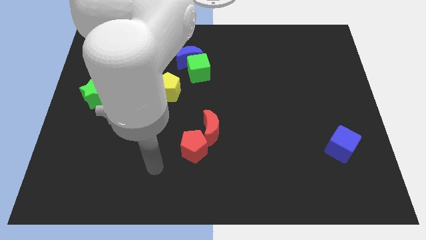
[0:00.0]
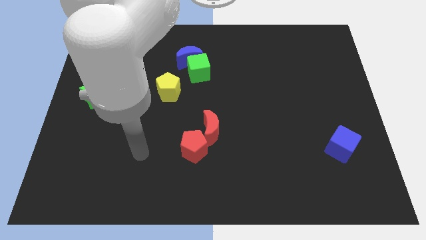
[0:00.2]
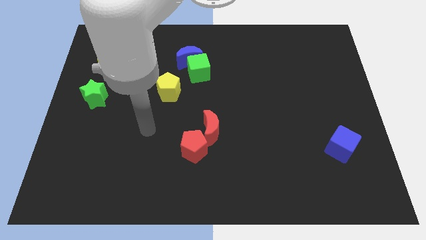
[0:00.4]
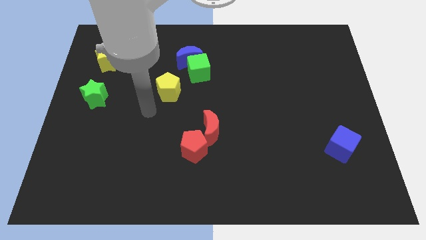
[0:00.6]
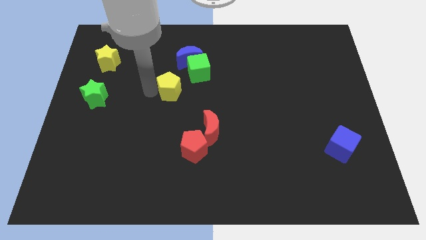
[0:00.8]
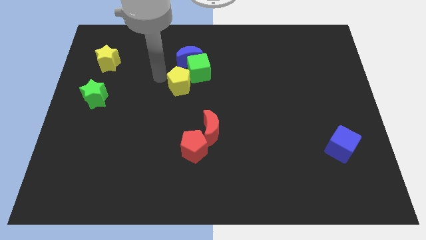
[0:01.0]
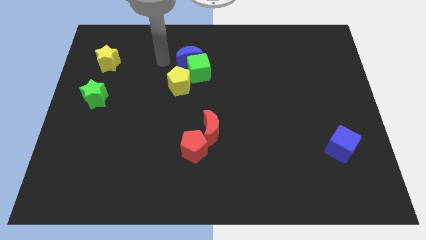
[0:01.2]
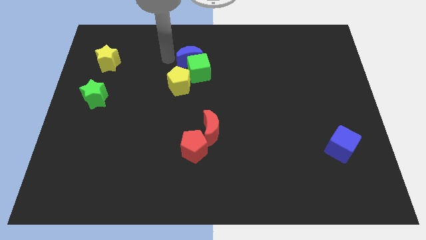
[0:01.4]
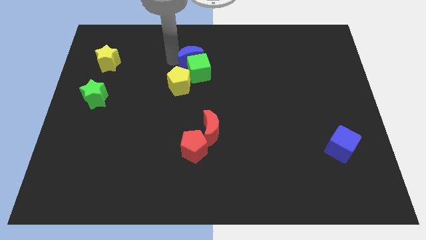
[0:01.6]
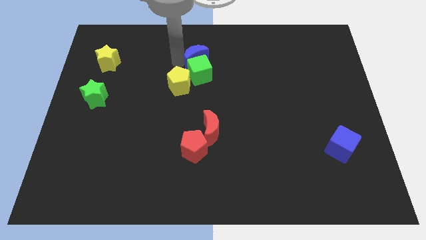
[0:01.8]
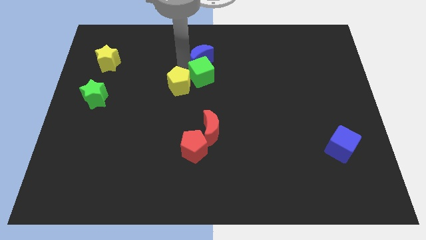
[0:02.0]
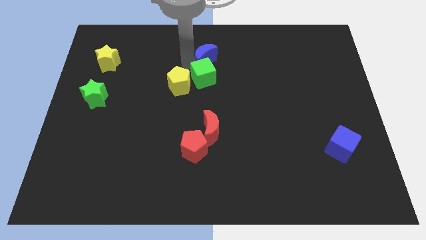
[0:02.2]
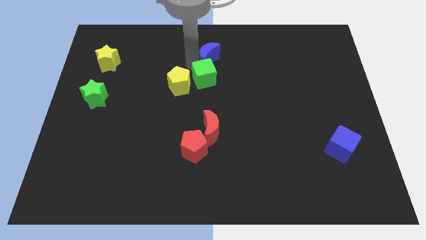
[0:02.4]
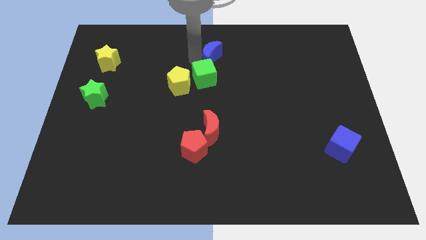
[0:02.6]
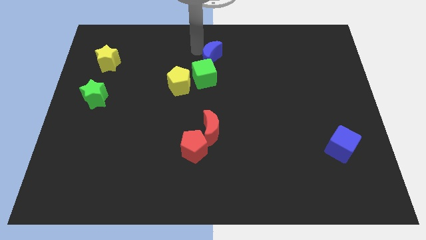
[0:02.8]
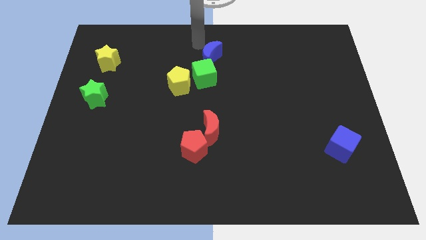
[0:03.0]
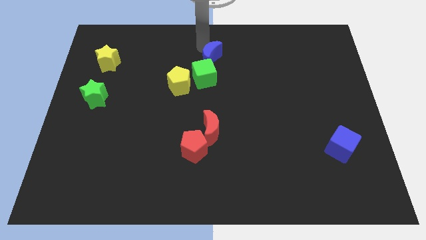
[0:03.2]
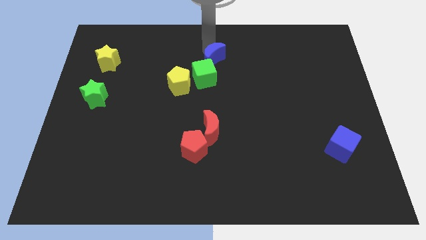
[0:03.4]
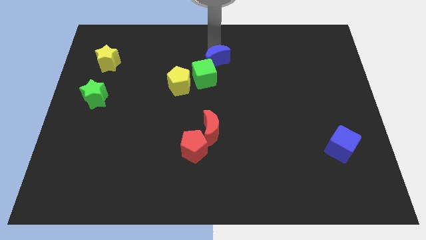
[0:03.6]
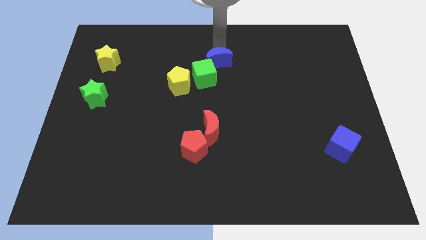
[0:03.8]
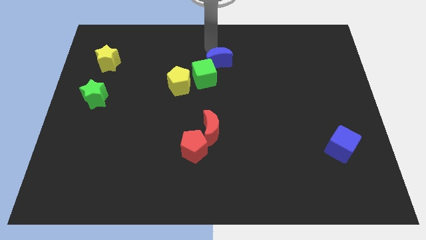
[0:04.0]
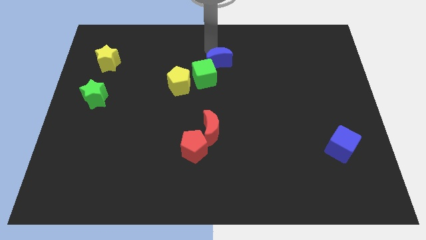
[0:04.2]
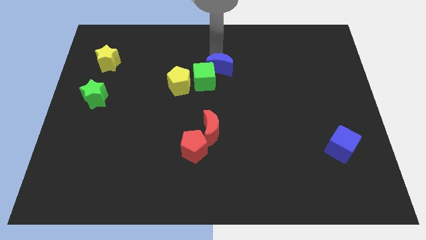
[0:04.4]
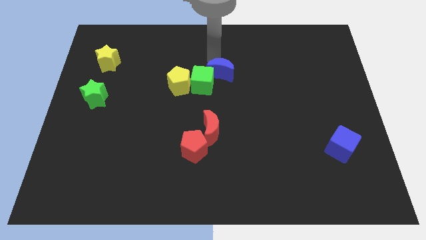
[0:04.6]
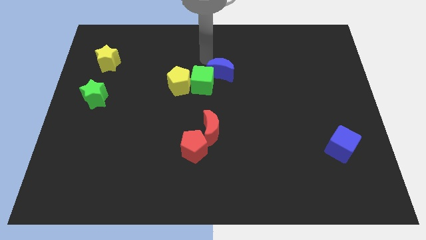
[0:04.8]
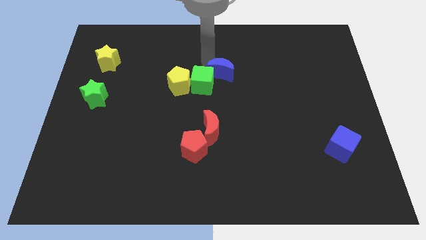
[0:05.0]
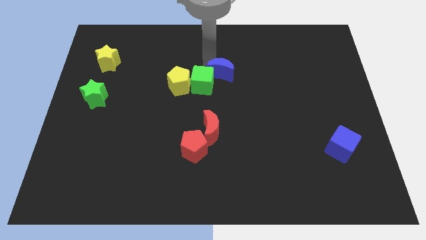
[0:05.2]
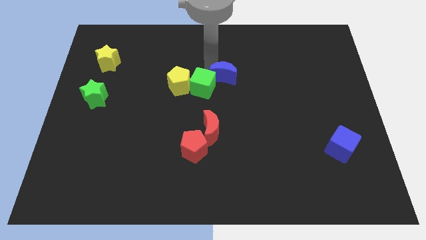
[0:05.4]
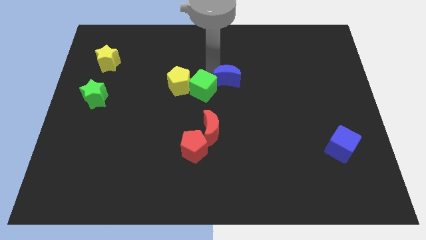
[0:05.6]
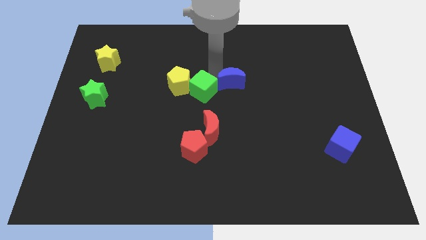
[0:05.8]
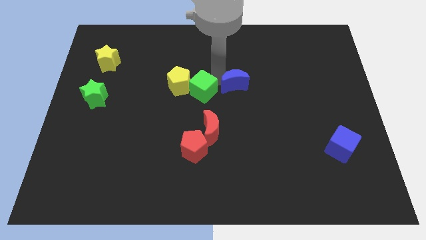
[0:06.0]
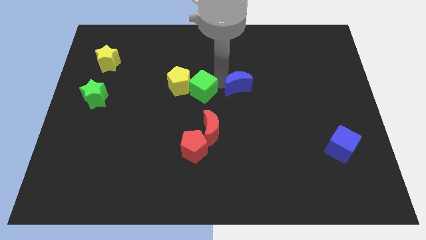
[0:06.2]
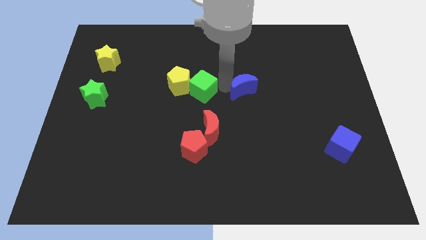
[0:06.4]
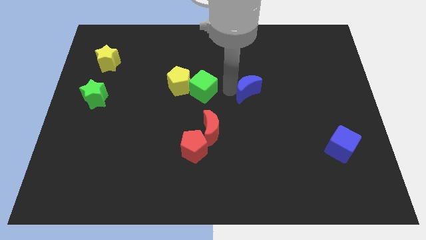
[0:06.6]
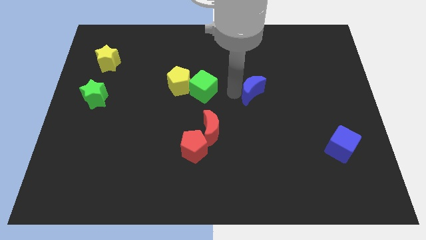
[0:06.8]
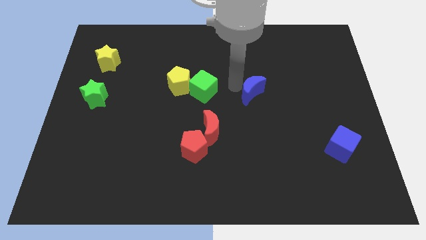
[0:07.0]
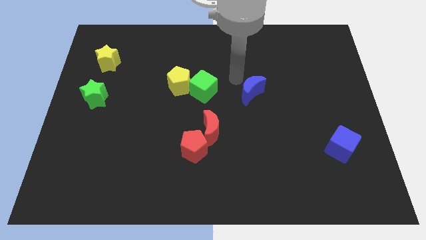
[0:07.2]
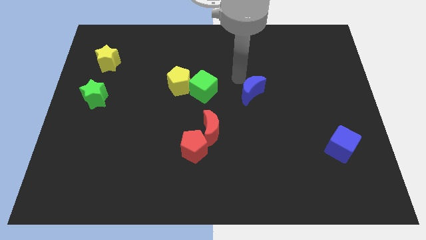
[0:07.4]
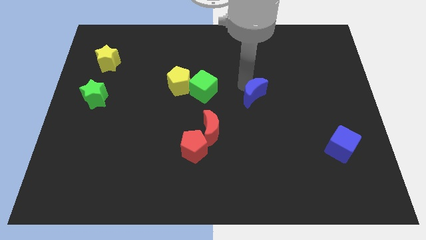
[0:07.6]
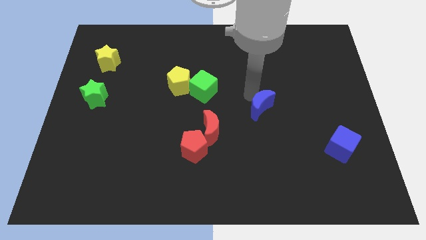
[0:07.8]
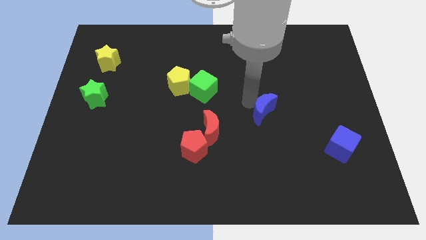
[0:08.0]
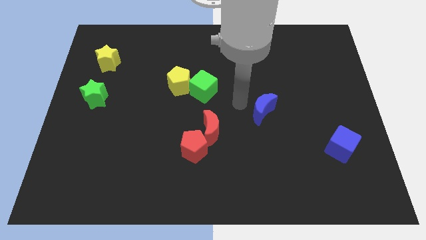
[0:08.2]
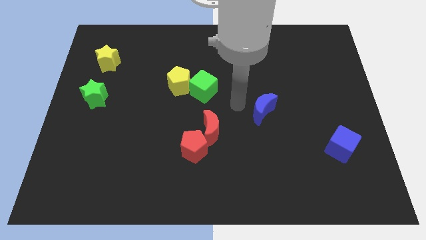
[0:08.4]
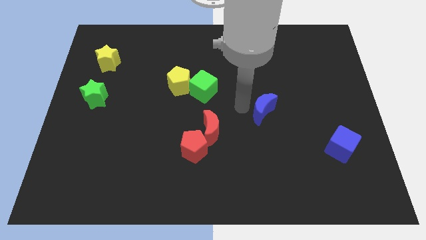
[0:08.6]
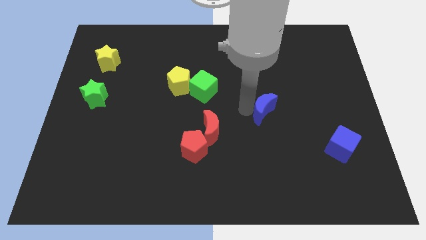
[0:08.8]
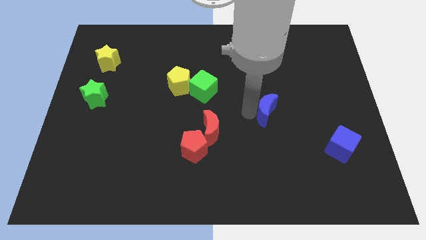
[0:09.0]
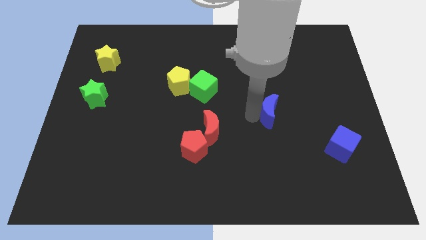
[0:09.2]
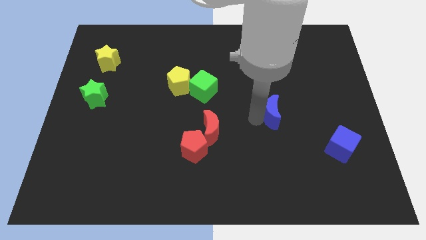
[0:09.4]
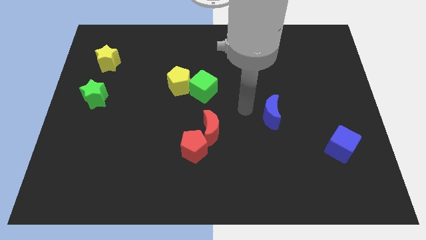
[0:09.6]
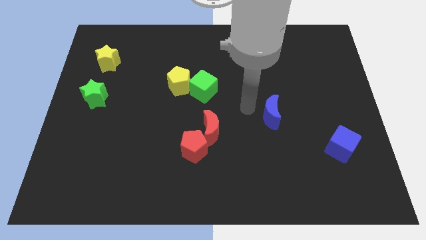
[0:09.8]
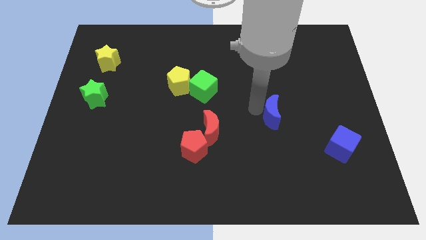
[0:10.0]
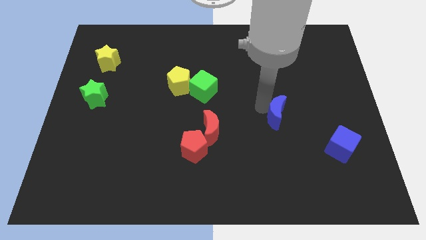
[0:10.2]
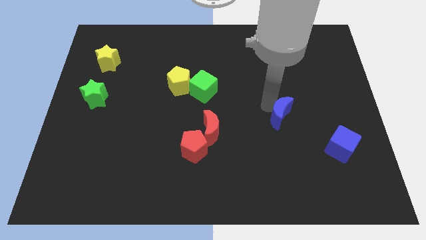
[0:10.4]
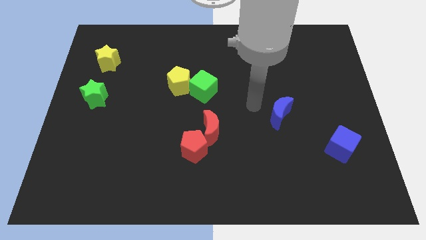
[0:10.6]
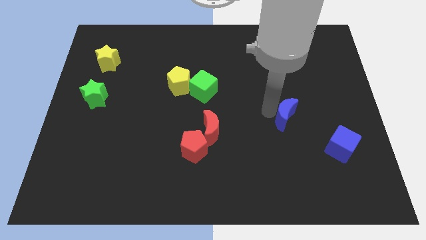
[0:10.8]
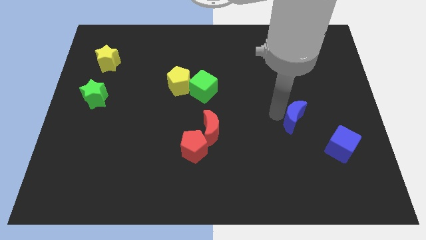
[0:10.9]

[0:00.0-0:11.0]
move the blue moon diagonally up and to the left of the blue cube

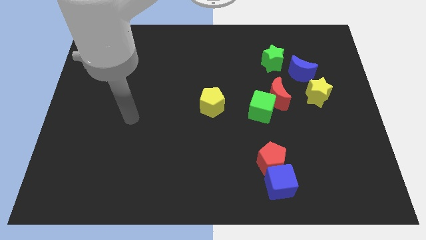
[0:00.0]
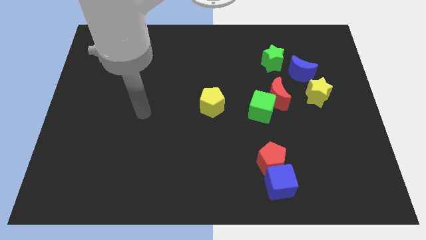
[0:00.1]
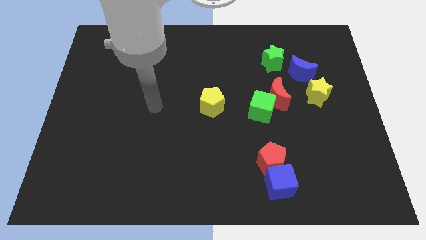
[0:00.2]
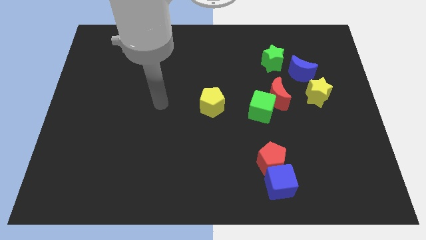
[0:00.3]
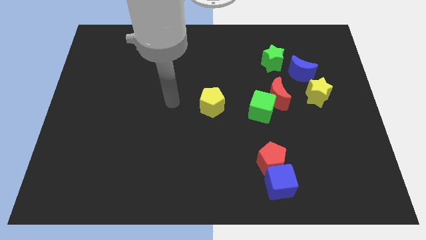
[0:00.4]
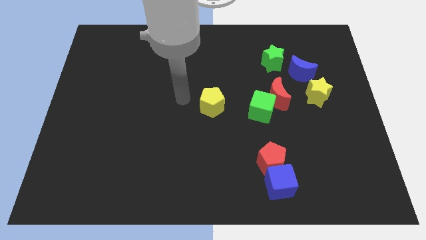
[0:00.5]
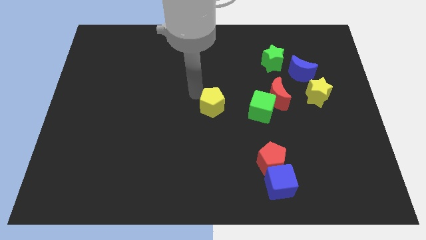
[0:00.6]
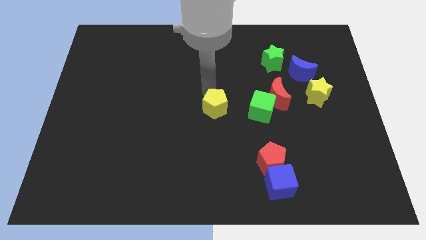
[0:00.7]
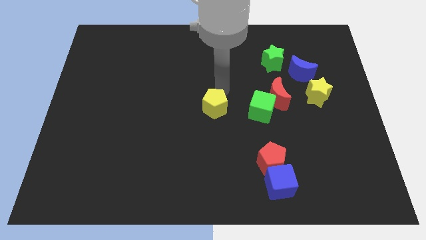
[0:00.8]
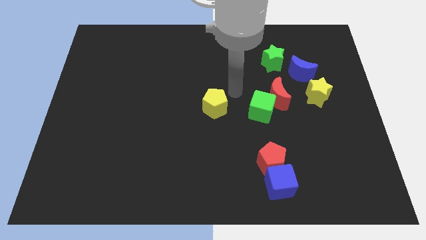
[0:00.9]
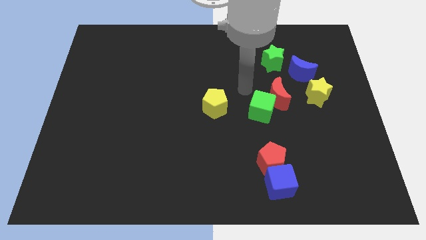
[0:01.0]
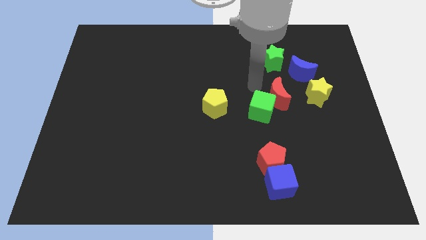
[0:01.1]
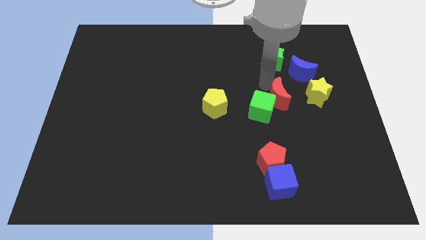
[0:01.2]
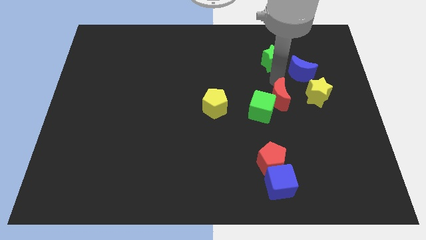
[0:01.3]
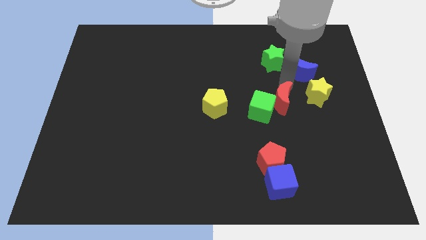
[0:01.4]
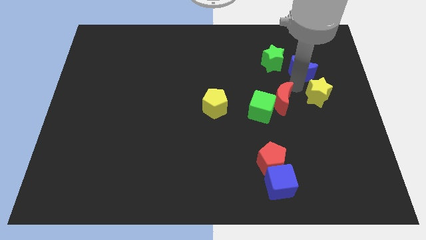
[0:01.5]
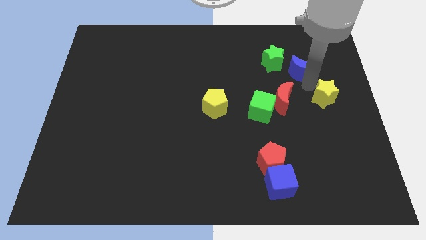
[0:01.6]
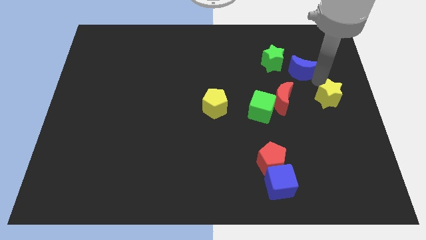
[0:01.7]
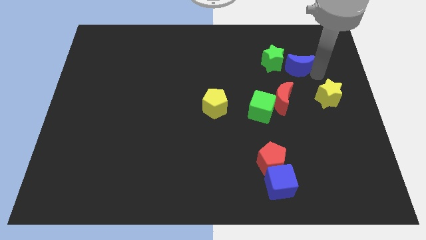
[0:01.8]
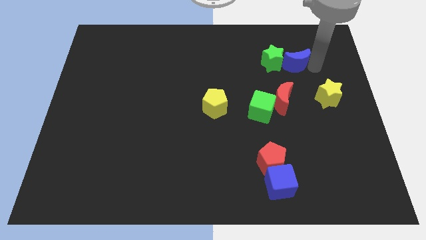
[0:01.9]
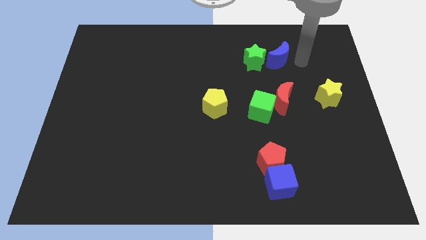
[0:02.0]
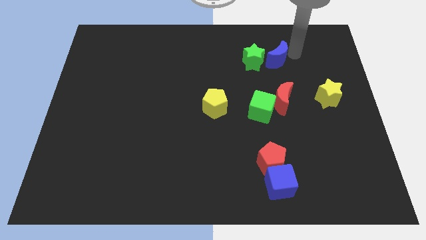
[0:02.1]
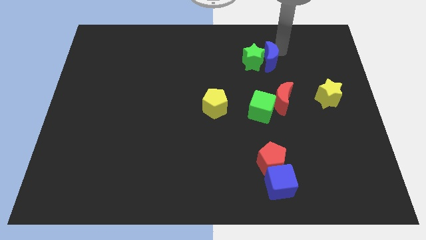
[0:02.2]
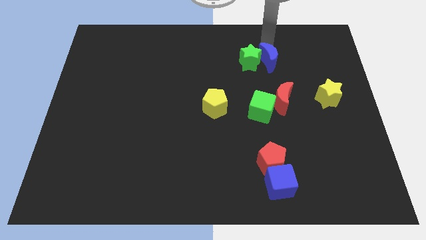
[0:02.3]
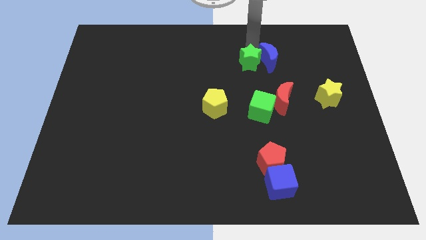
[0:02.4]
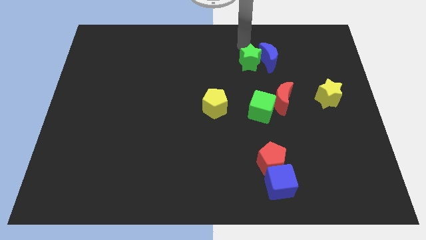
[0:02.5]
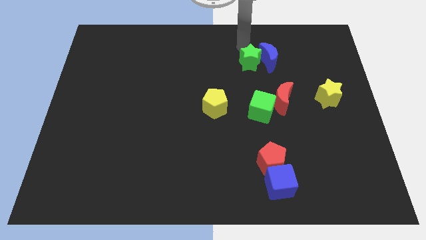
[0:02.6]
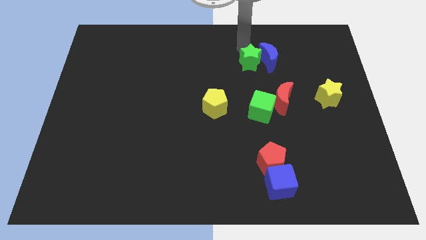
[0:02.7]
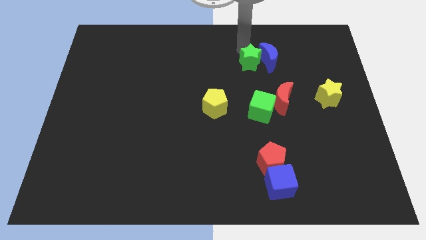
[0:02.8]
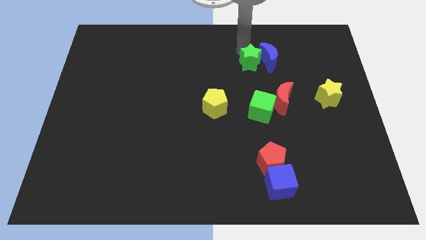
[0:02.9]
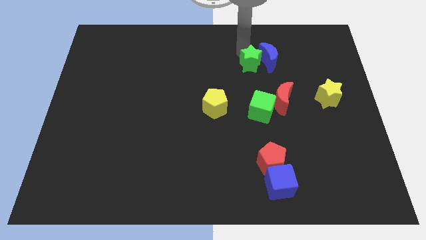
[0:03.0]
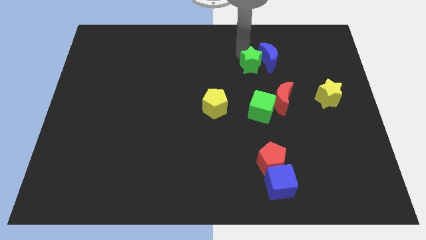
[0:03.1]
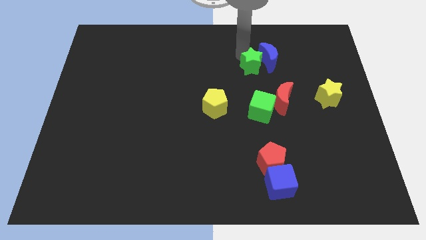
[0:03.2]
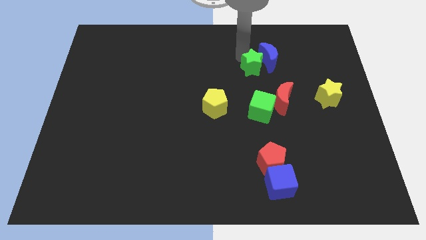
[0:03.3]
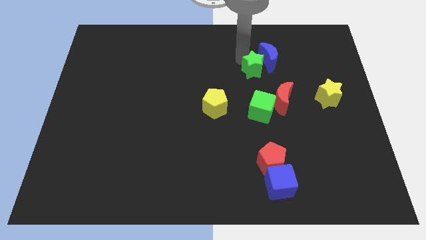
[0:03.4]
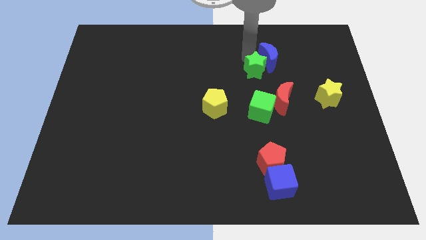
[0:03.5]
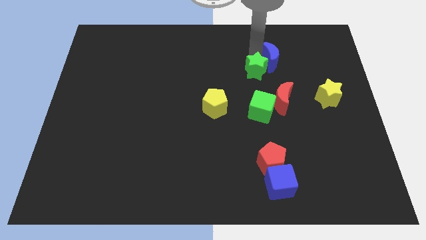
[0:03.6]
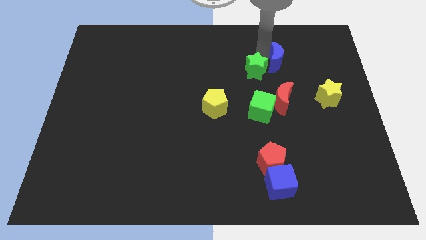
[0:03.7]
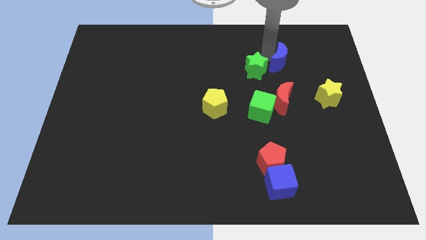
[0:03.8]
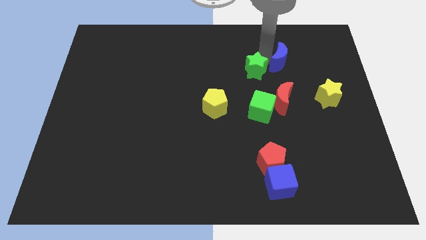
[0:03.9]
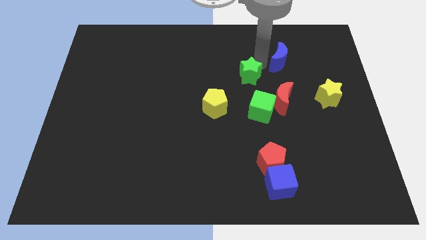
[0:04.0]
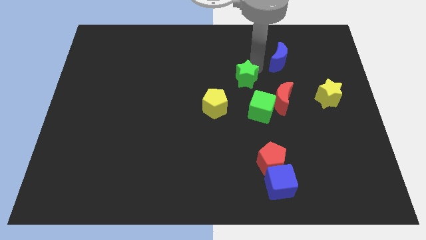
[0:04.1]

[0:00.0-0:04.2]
push the green star to the top right of the yellow pentagon
